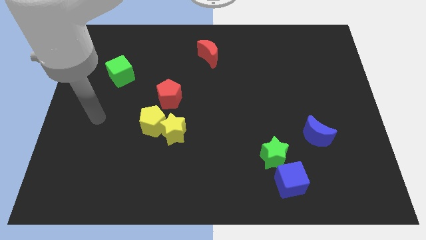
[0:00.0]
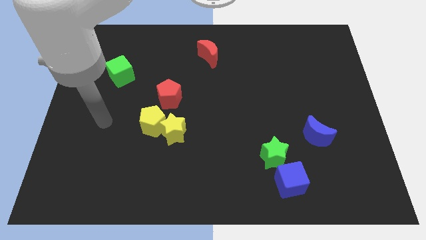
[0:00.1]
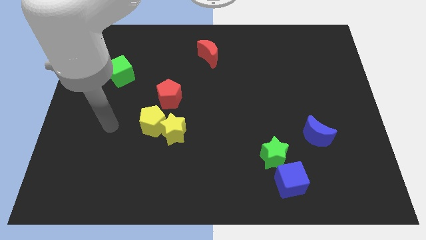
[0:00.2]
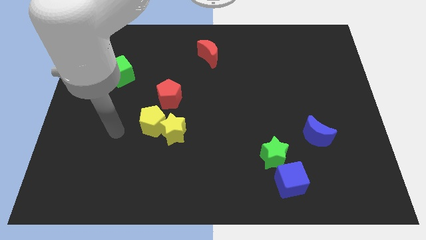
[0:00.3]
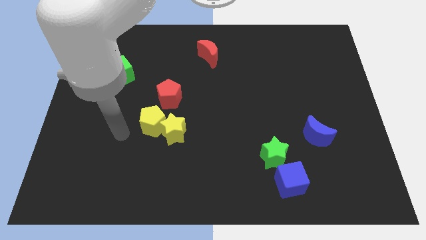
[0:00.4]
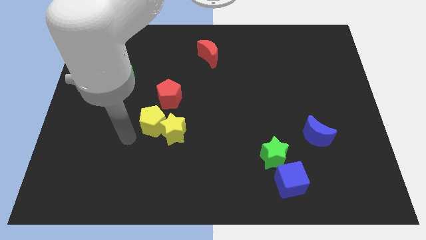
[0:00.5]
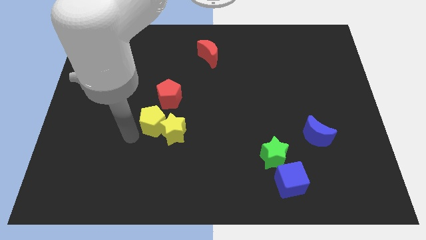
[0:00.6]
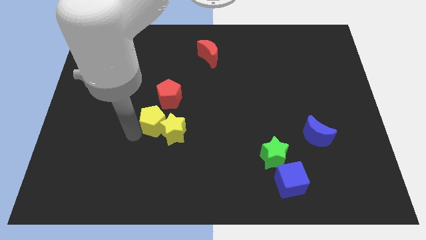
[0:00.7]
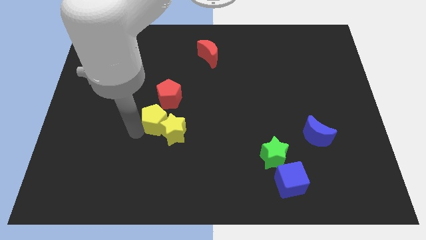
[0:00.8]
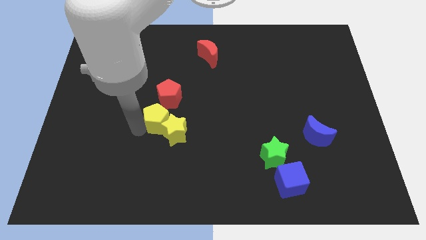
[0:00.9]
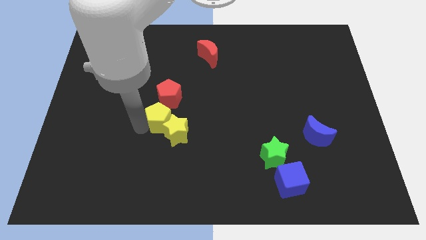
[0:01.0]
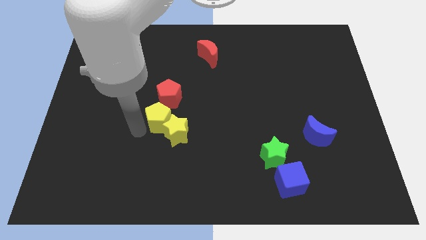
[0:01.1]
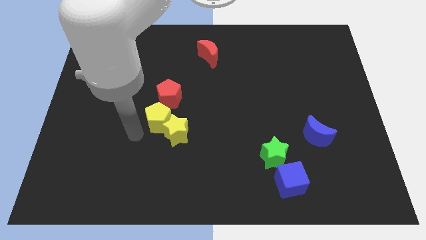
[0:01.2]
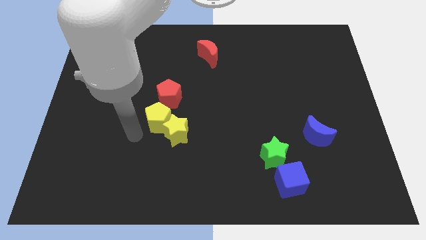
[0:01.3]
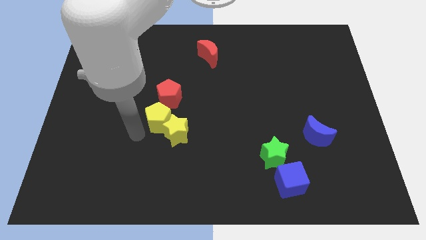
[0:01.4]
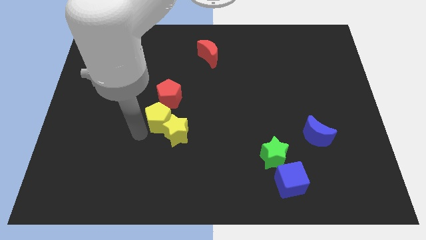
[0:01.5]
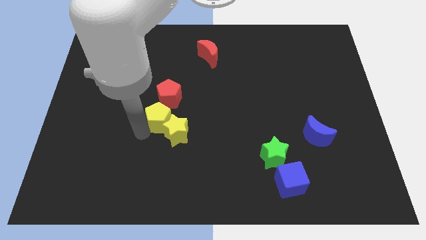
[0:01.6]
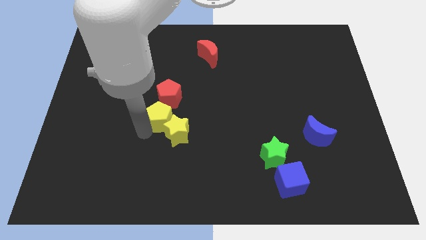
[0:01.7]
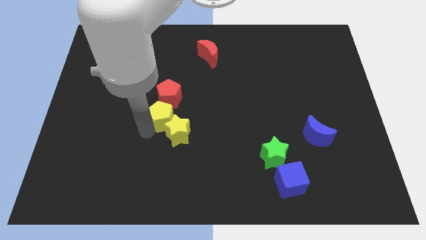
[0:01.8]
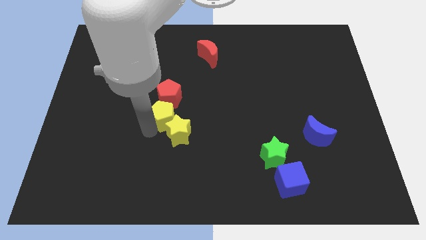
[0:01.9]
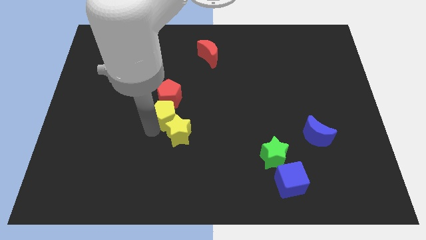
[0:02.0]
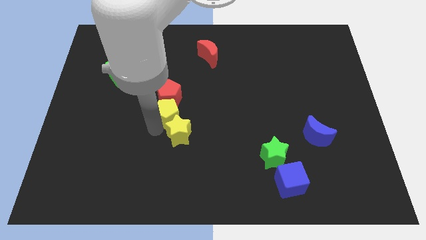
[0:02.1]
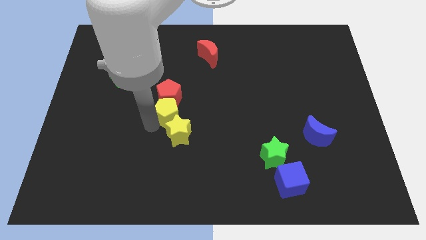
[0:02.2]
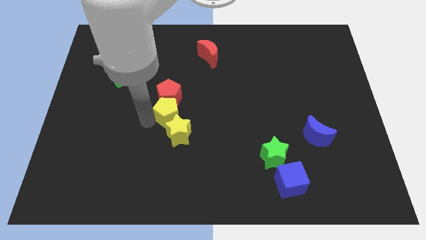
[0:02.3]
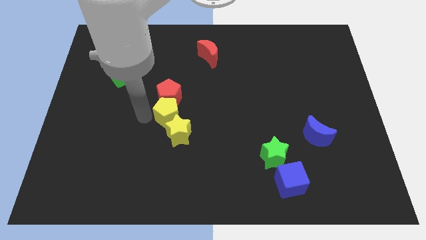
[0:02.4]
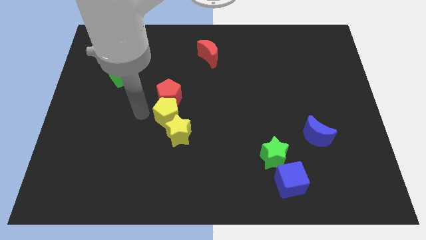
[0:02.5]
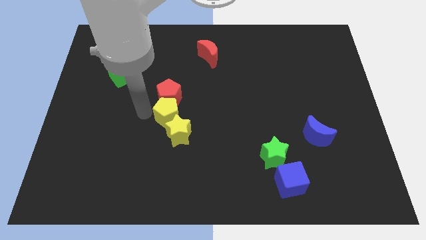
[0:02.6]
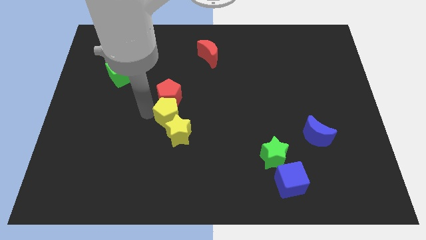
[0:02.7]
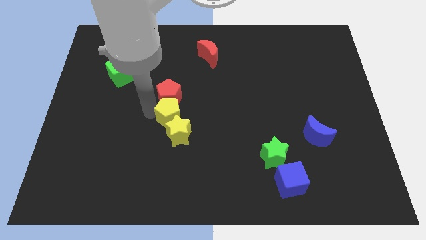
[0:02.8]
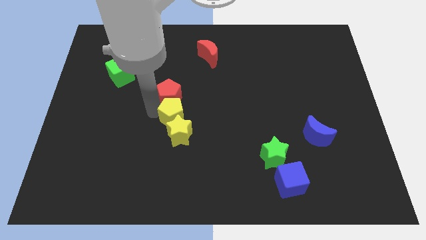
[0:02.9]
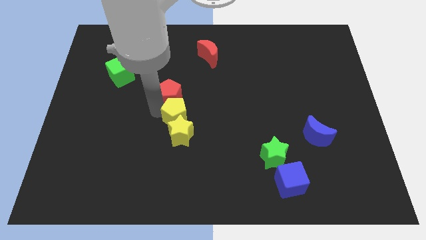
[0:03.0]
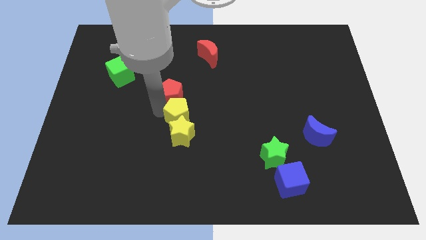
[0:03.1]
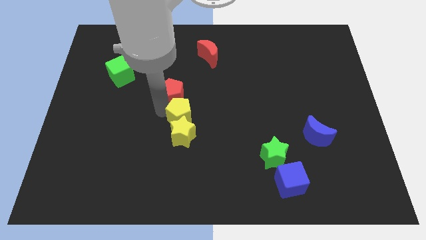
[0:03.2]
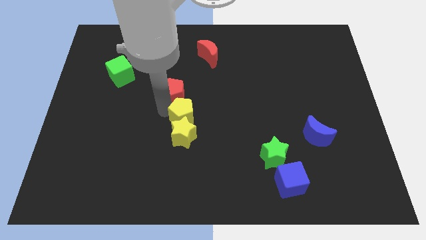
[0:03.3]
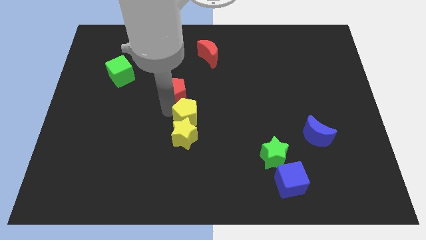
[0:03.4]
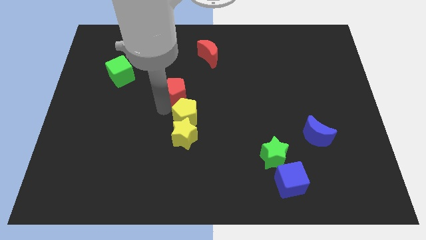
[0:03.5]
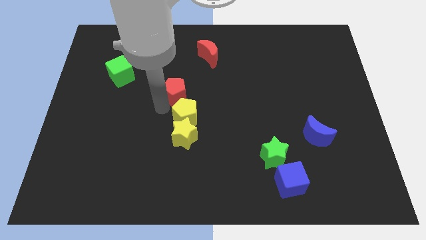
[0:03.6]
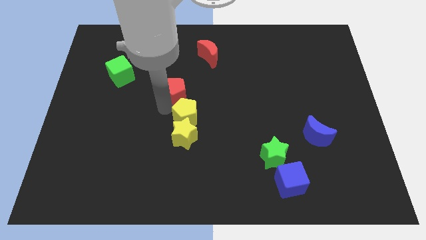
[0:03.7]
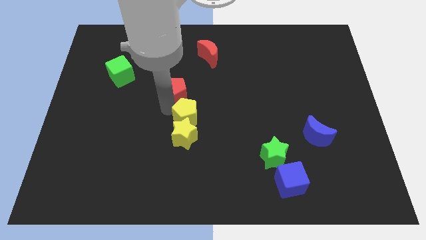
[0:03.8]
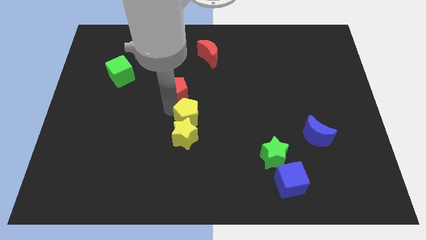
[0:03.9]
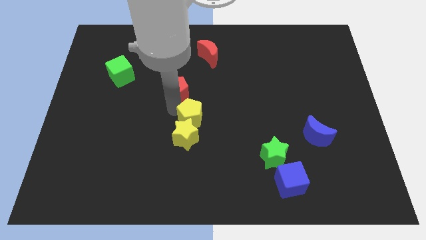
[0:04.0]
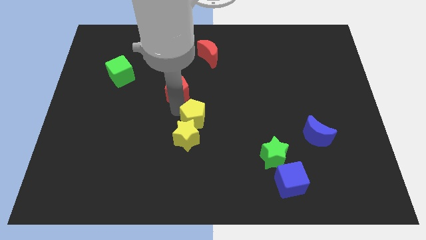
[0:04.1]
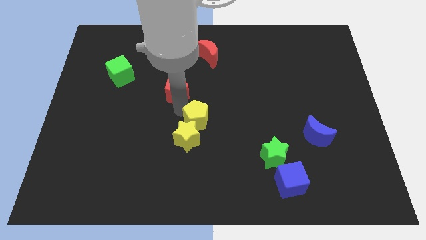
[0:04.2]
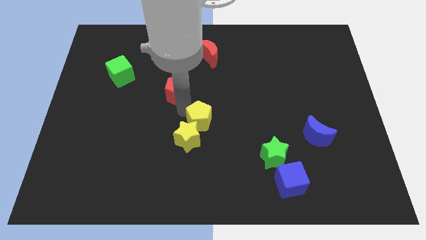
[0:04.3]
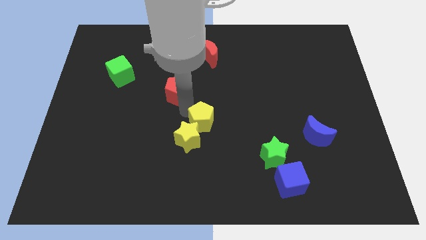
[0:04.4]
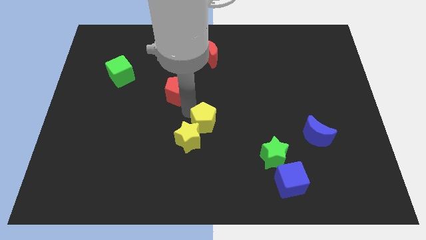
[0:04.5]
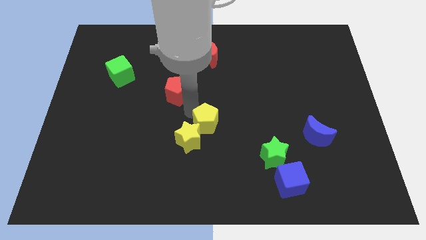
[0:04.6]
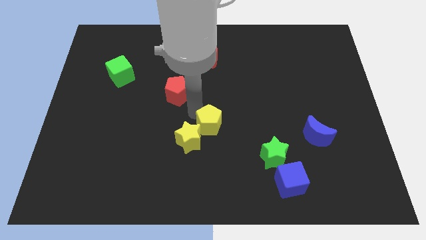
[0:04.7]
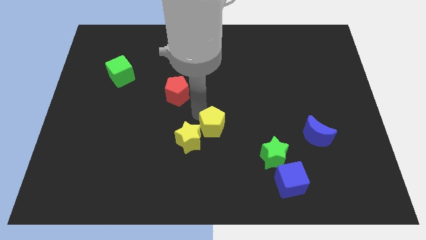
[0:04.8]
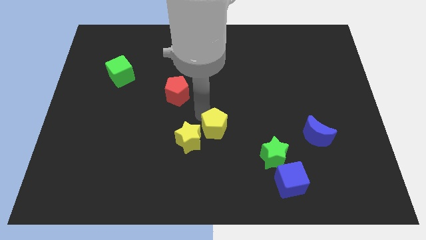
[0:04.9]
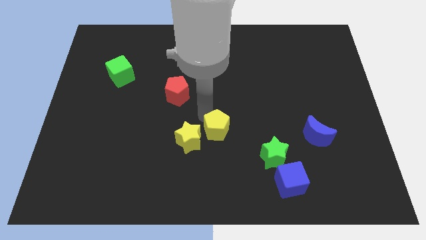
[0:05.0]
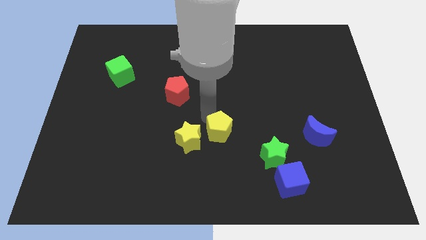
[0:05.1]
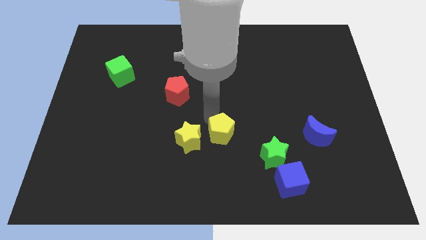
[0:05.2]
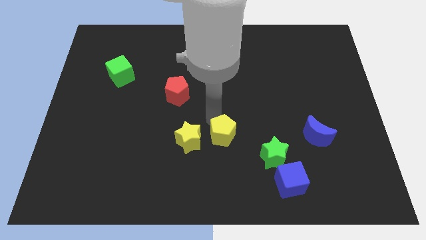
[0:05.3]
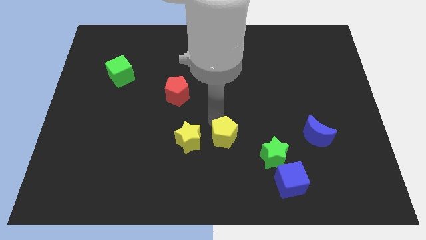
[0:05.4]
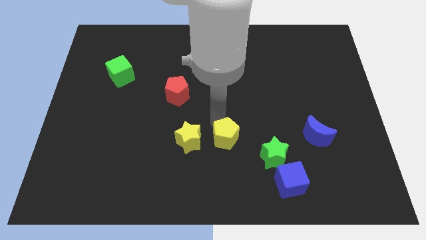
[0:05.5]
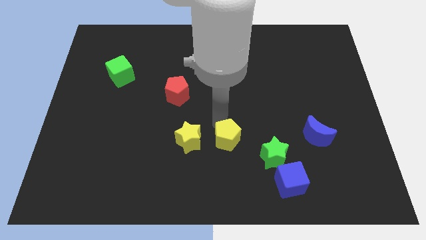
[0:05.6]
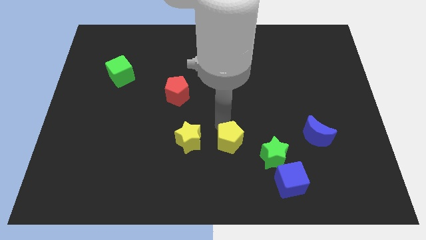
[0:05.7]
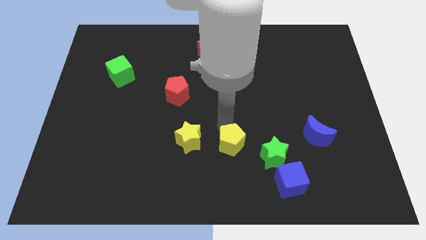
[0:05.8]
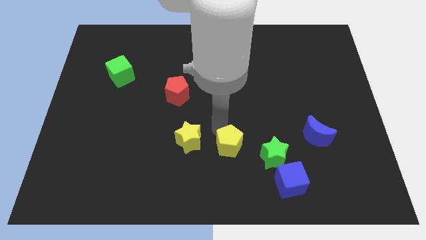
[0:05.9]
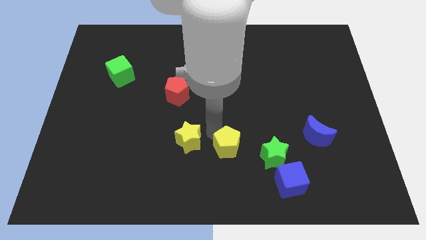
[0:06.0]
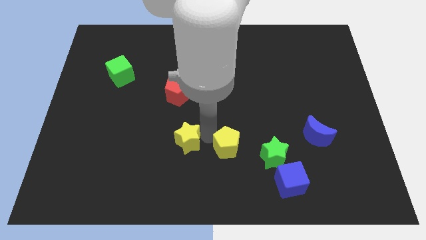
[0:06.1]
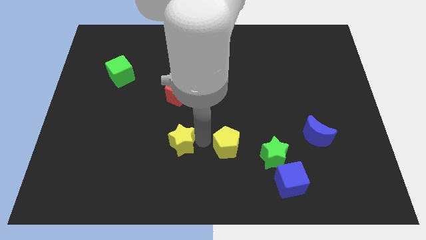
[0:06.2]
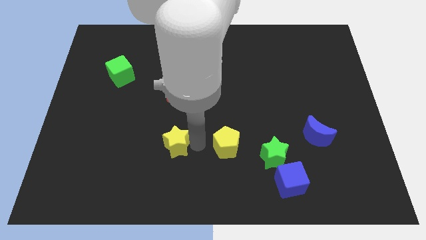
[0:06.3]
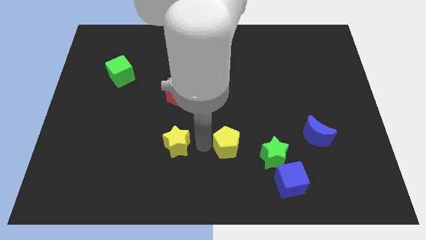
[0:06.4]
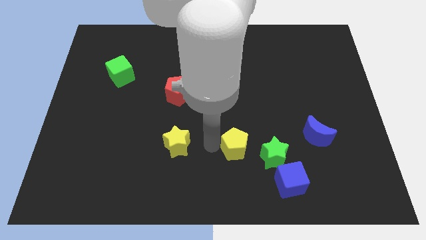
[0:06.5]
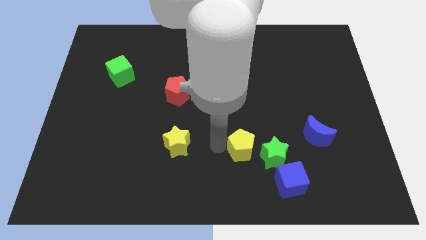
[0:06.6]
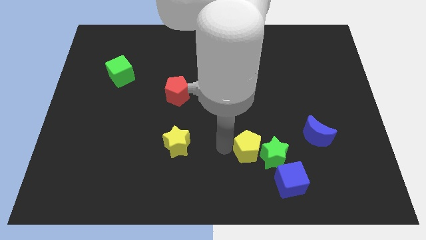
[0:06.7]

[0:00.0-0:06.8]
push the yellow pentagon close to the green star
